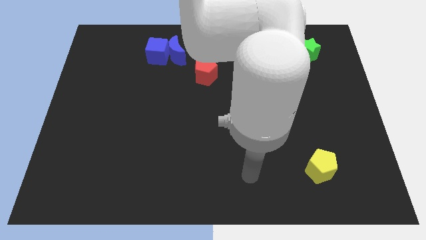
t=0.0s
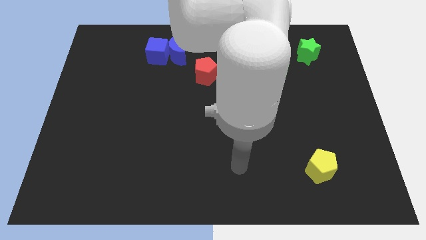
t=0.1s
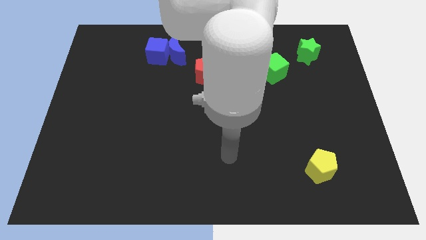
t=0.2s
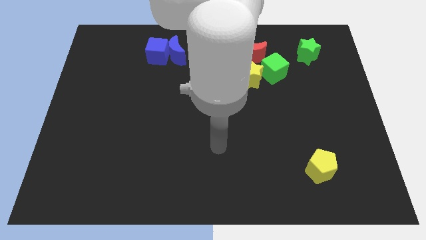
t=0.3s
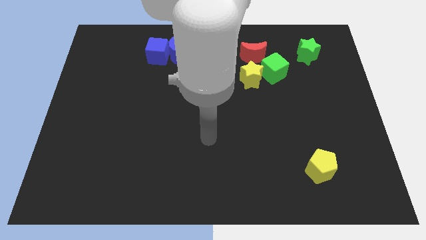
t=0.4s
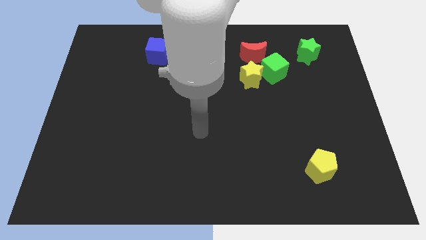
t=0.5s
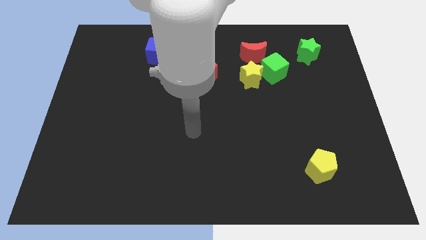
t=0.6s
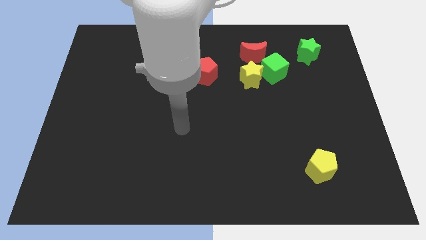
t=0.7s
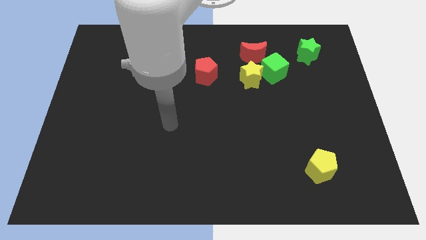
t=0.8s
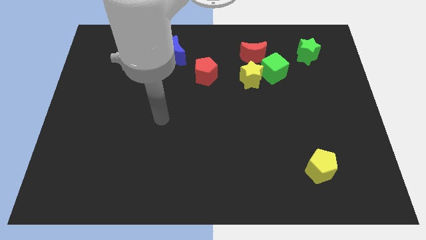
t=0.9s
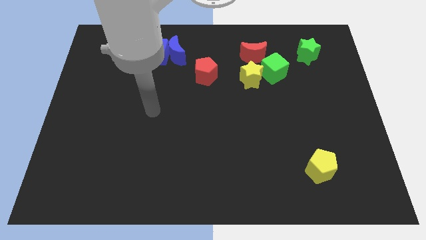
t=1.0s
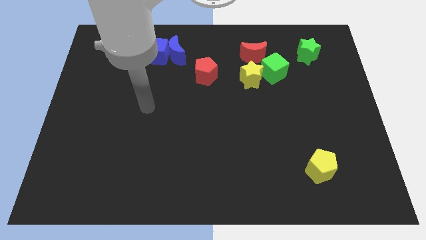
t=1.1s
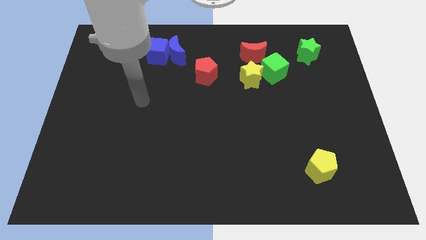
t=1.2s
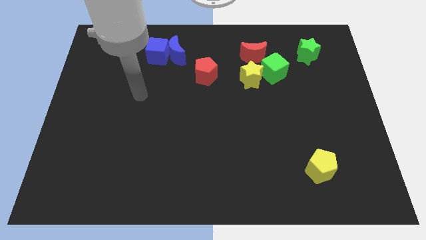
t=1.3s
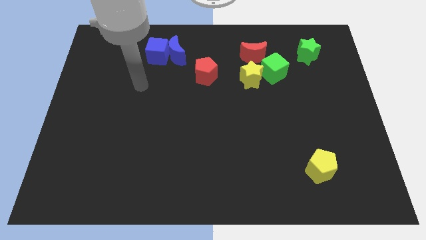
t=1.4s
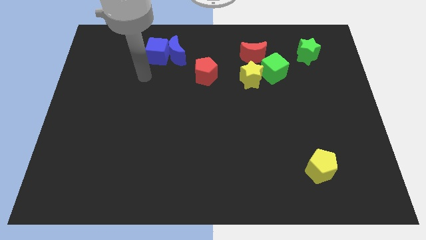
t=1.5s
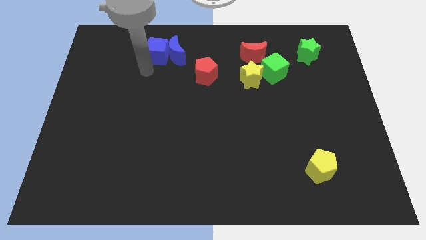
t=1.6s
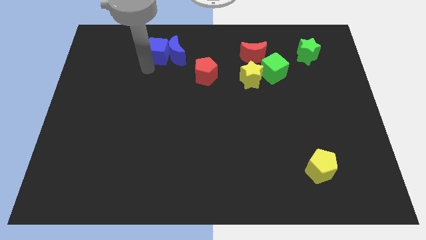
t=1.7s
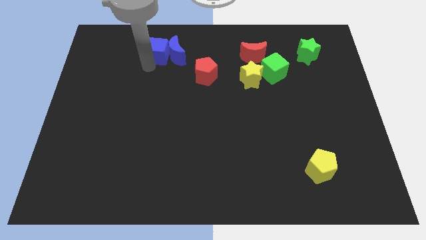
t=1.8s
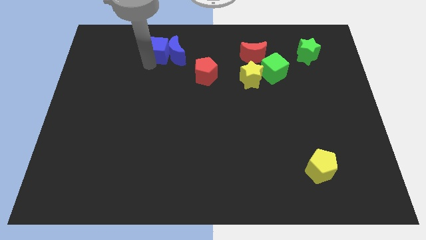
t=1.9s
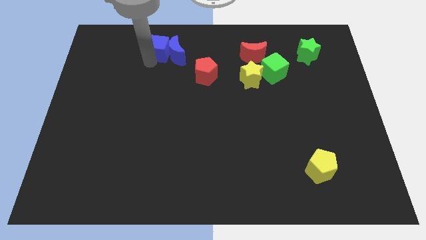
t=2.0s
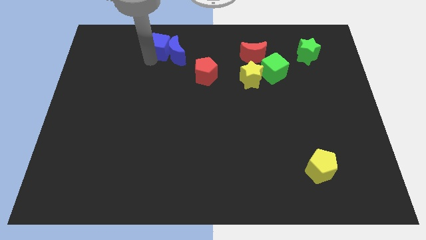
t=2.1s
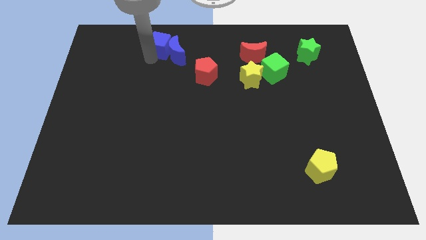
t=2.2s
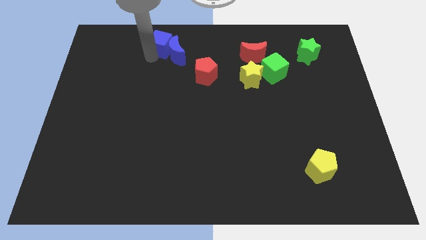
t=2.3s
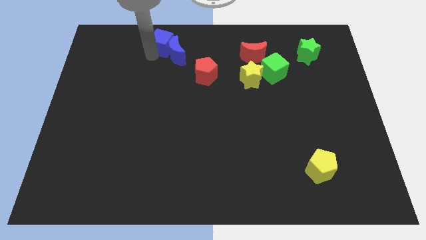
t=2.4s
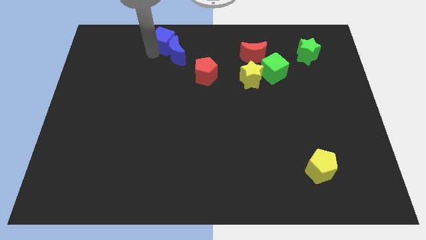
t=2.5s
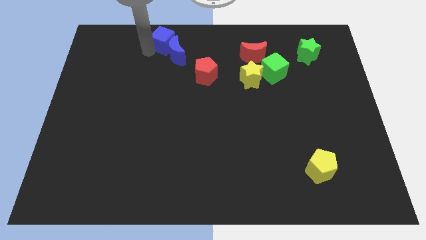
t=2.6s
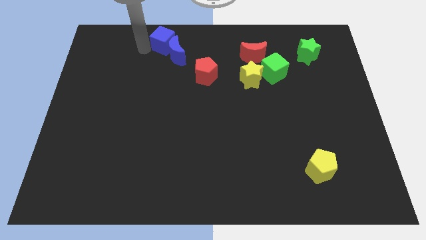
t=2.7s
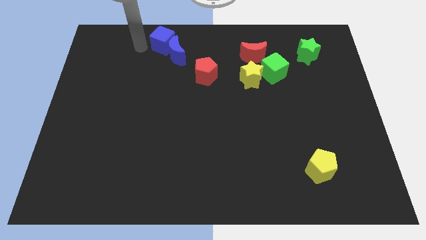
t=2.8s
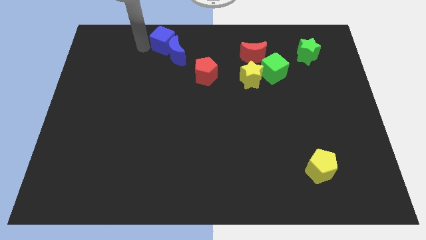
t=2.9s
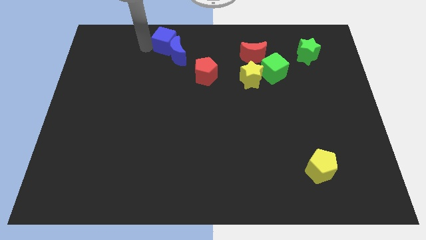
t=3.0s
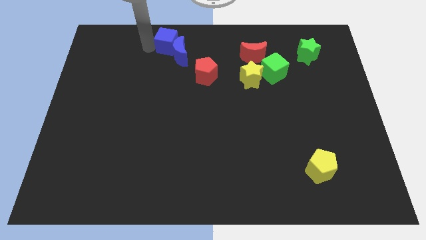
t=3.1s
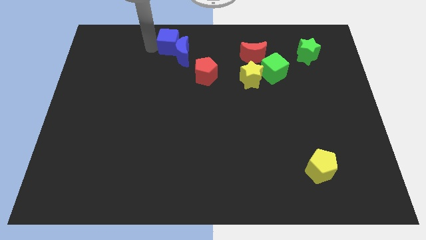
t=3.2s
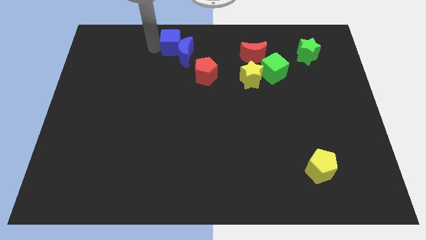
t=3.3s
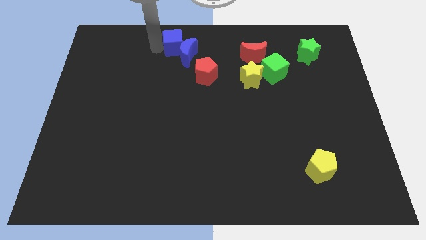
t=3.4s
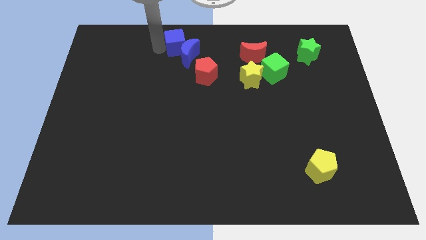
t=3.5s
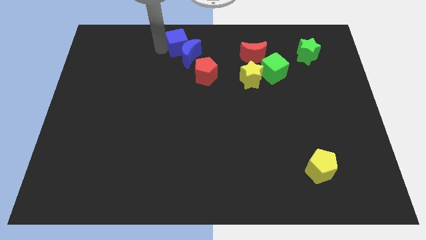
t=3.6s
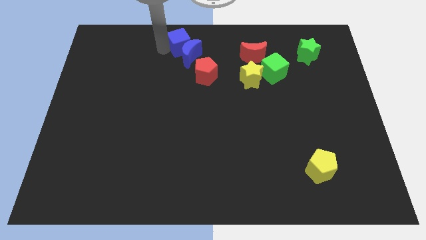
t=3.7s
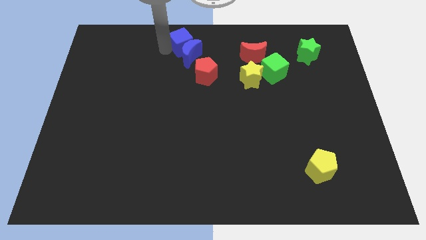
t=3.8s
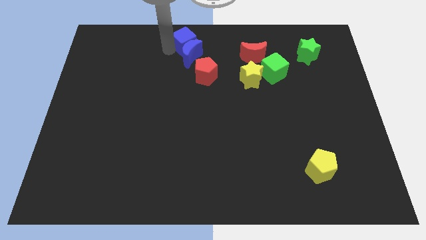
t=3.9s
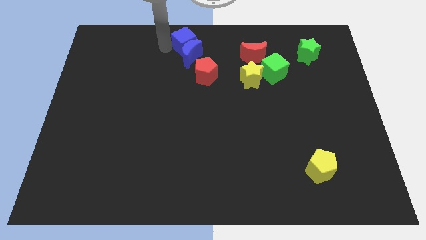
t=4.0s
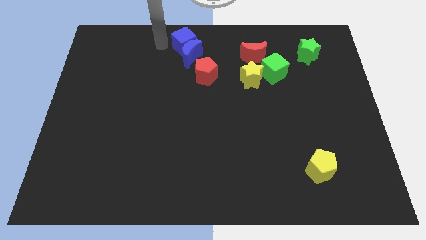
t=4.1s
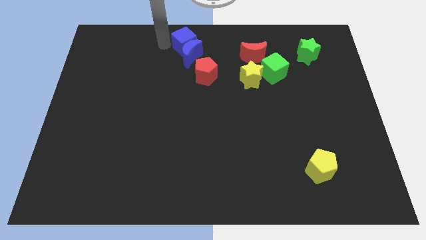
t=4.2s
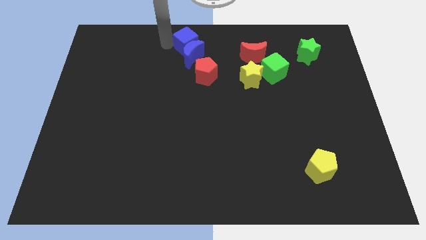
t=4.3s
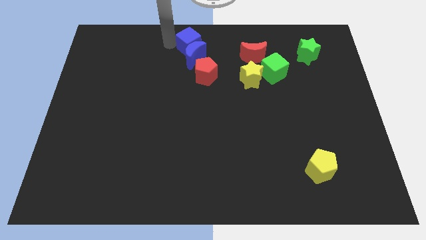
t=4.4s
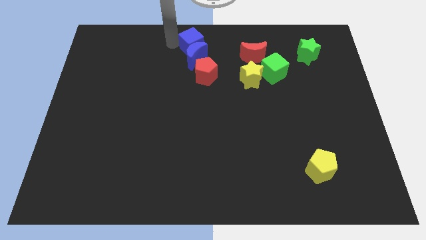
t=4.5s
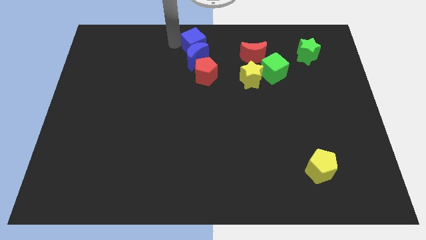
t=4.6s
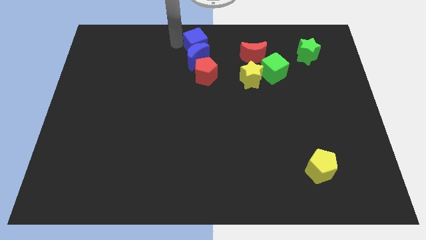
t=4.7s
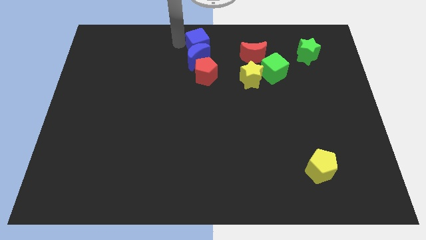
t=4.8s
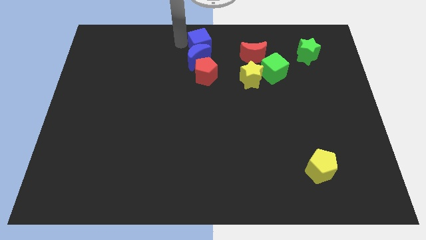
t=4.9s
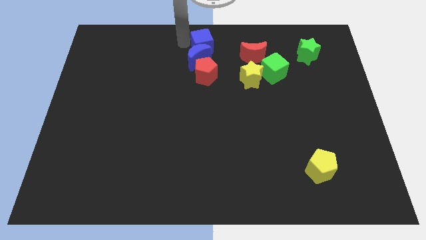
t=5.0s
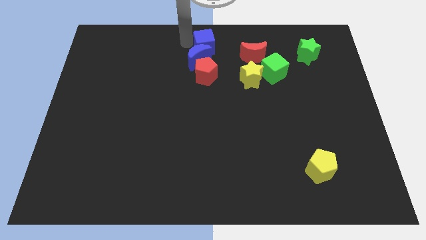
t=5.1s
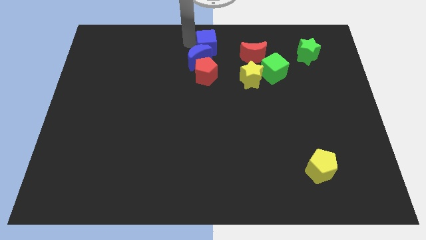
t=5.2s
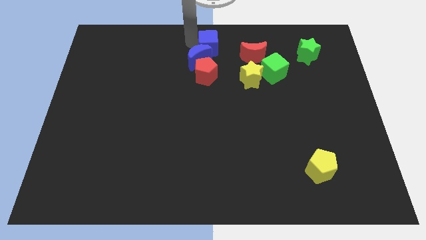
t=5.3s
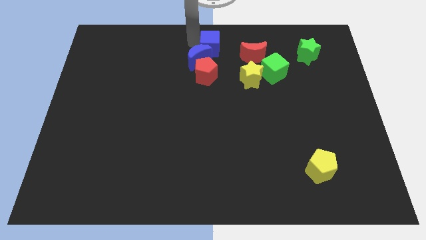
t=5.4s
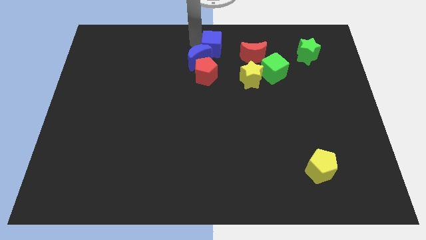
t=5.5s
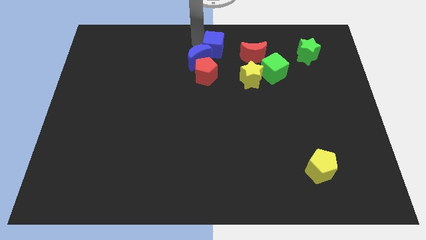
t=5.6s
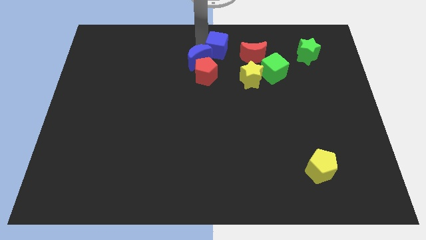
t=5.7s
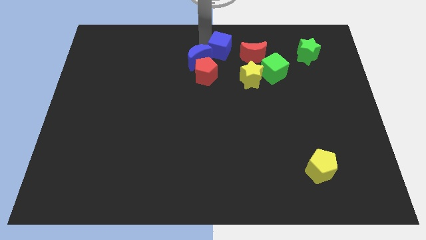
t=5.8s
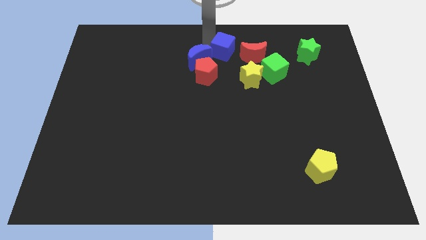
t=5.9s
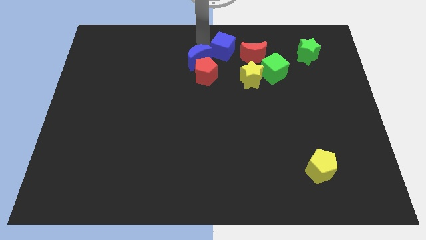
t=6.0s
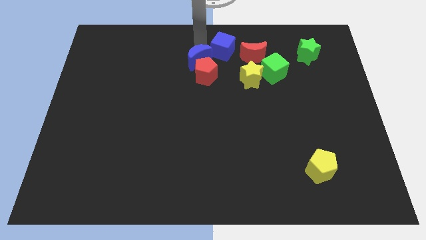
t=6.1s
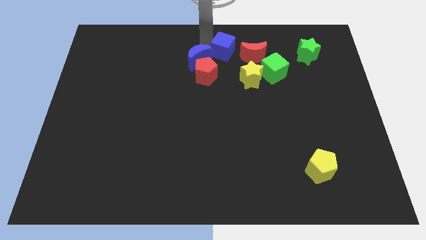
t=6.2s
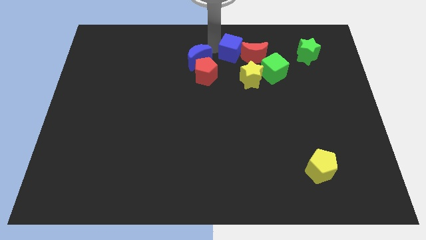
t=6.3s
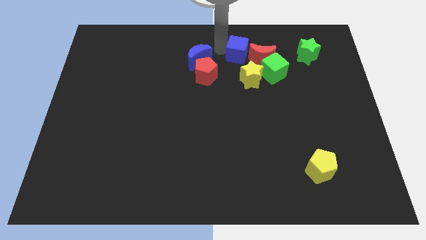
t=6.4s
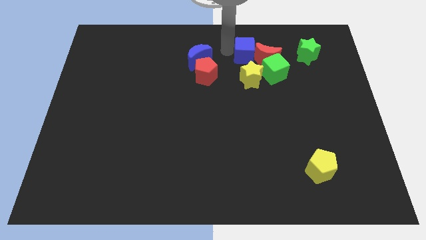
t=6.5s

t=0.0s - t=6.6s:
put the blue cube next to the red moon
